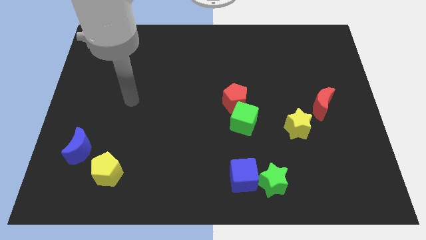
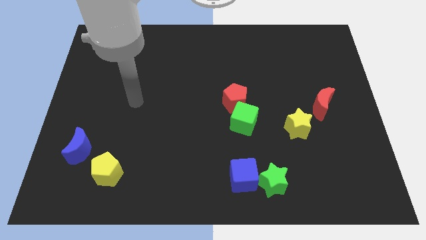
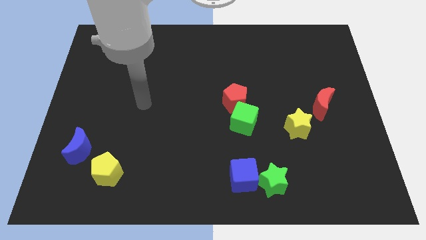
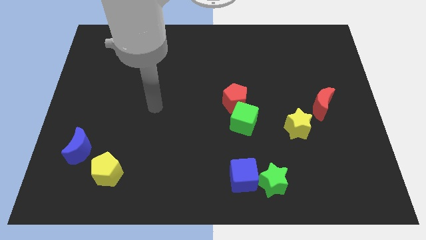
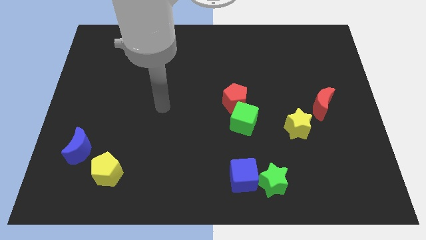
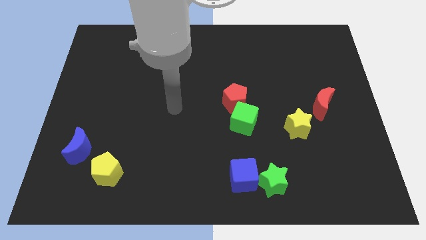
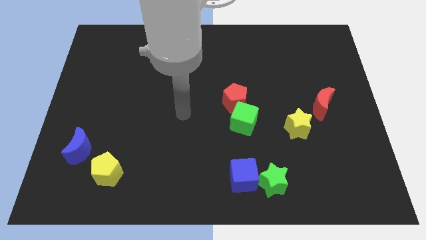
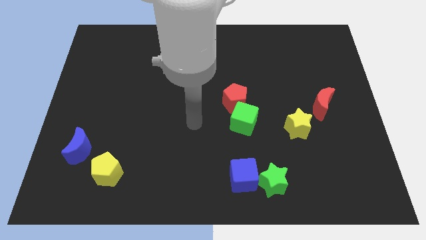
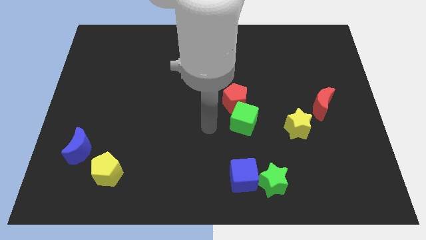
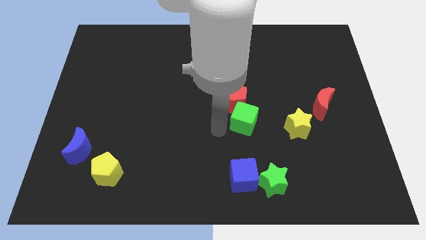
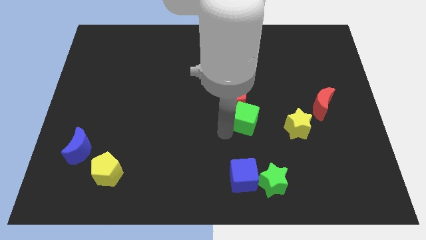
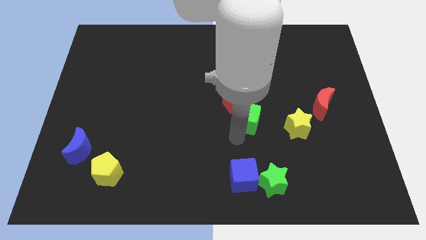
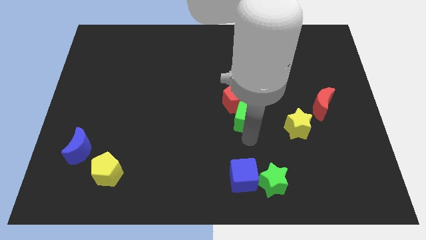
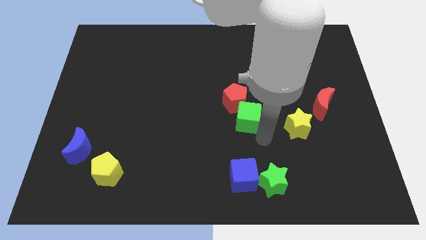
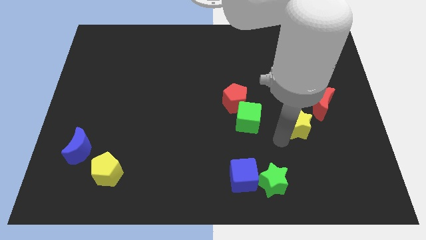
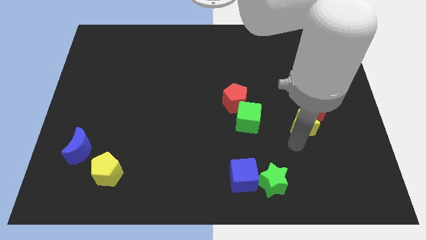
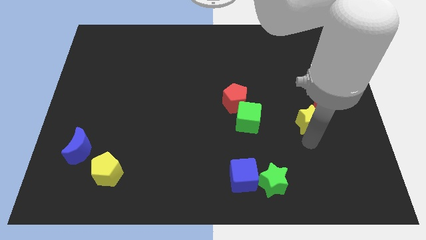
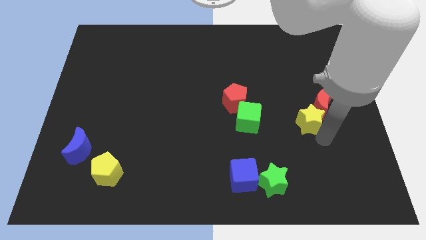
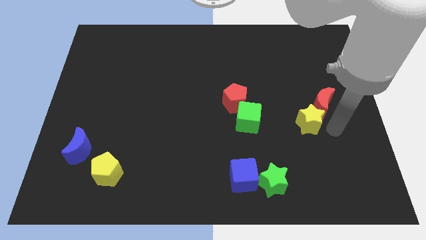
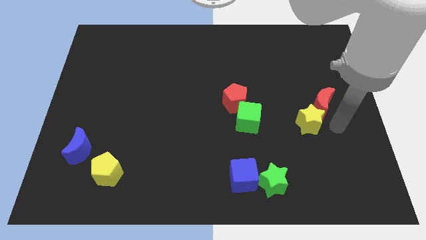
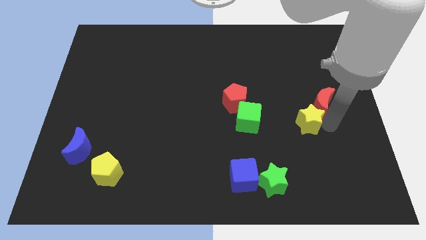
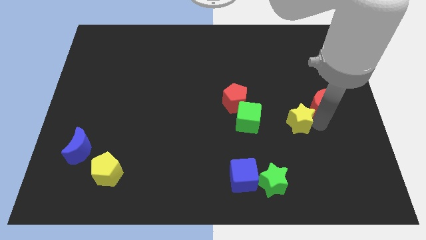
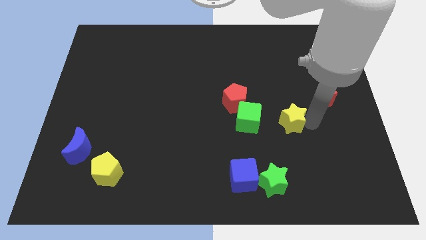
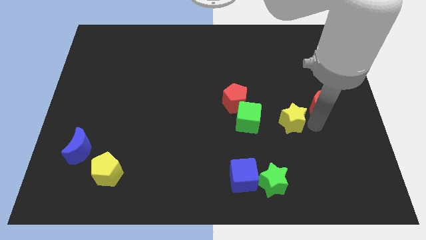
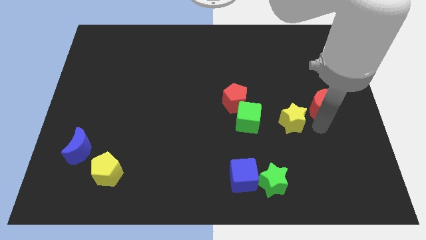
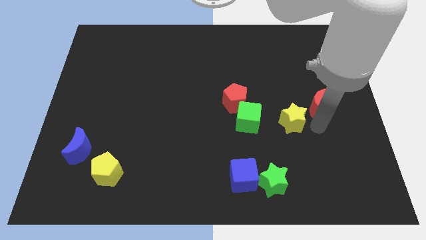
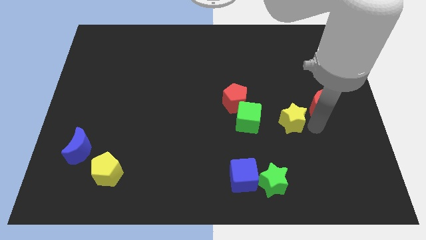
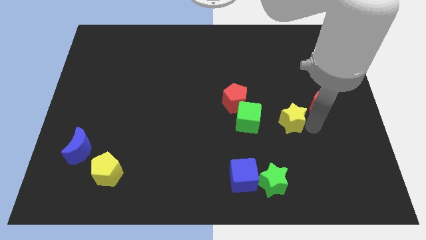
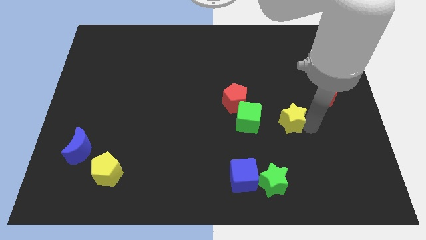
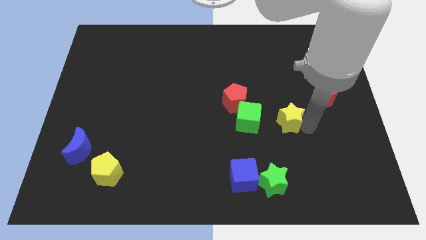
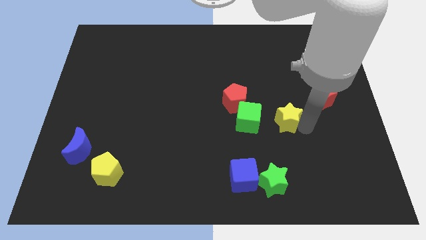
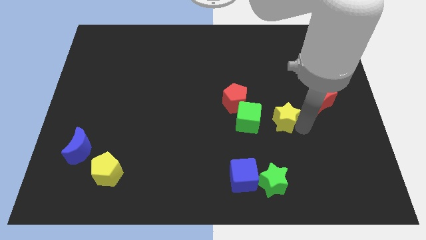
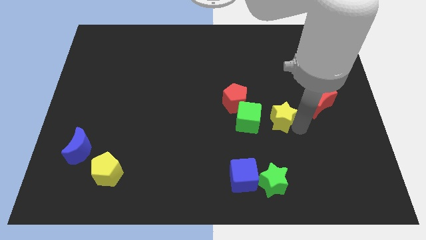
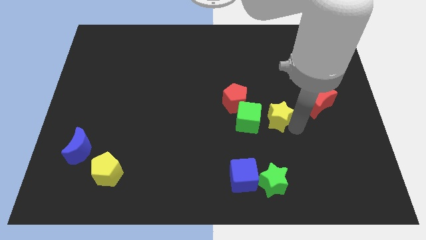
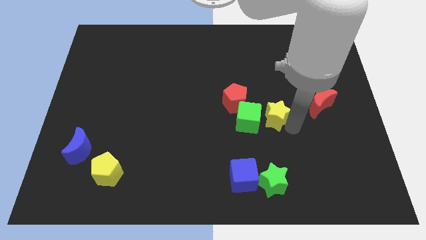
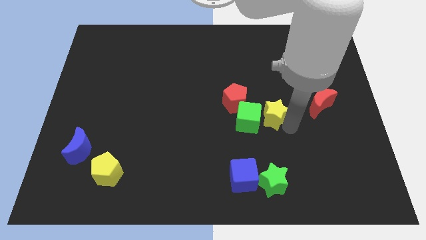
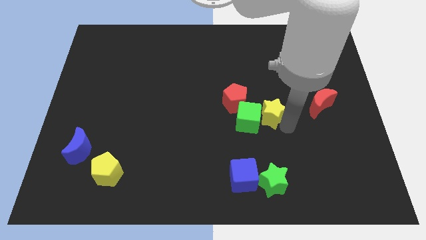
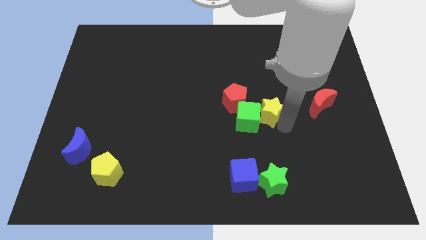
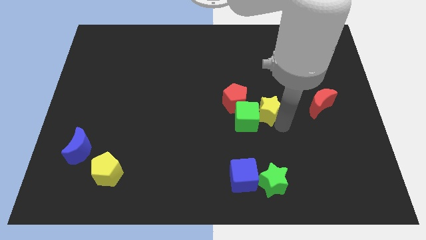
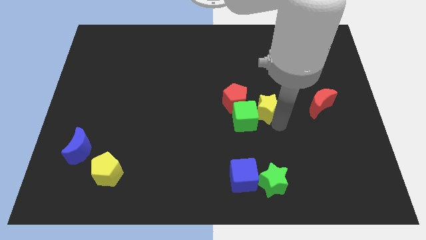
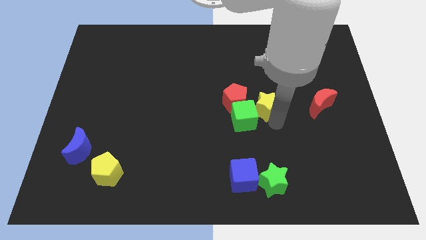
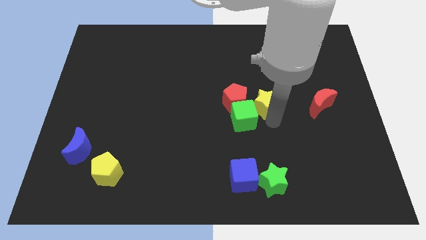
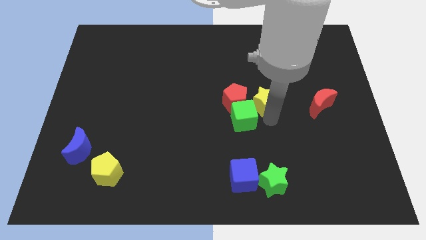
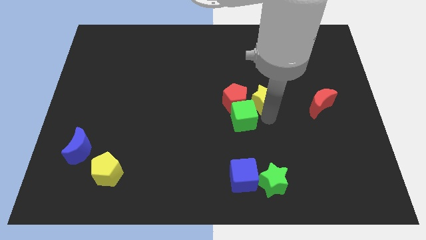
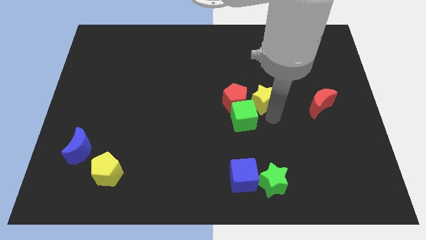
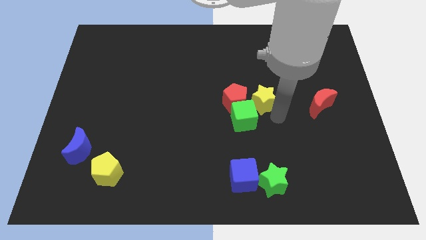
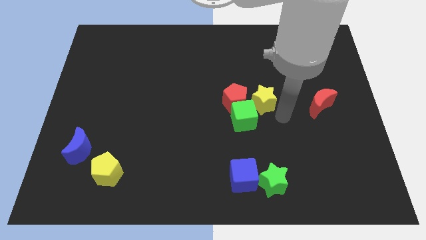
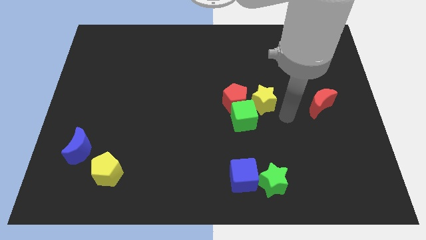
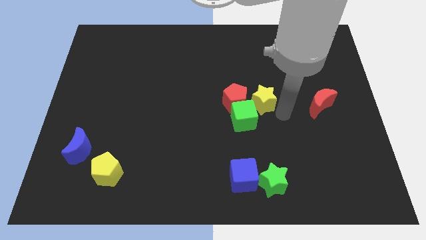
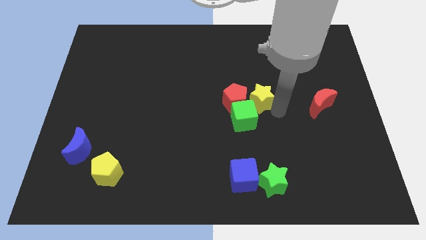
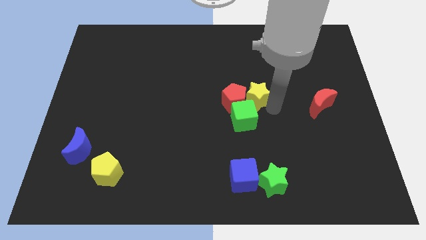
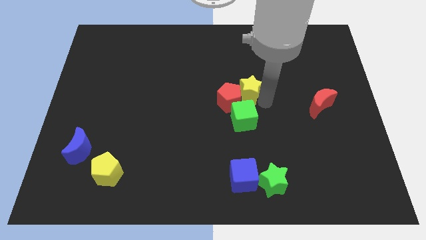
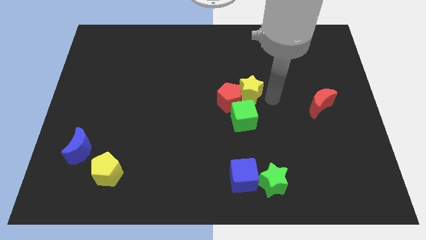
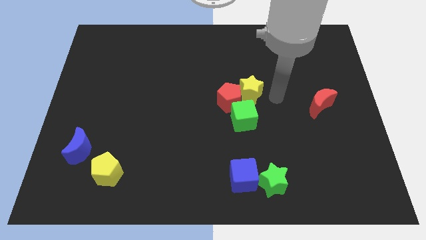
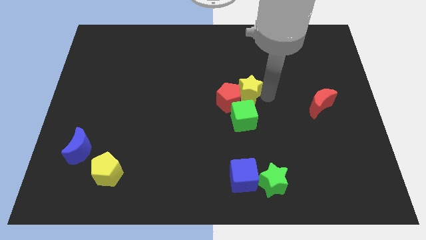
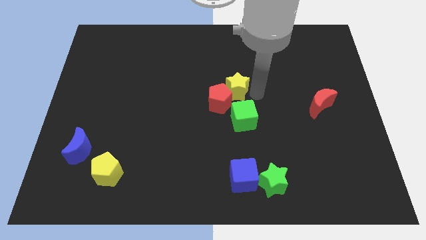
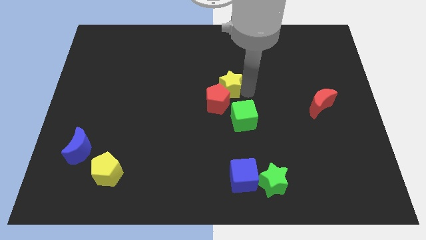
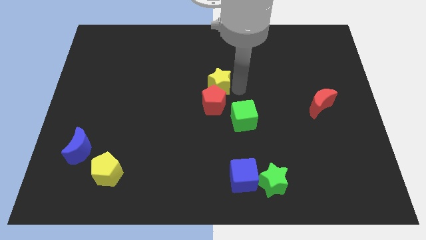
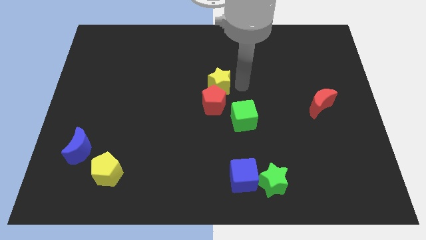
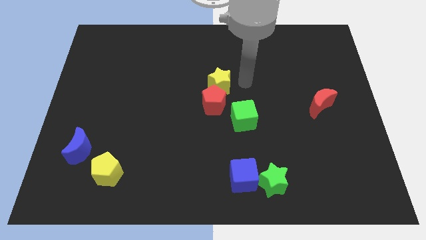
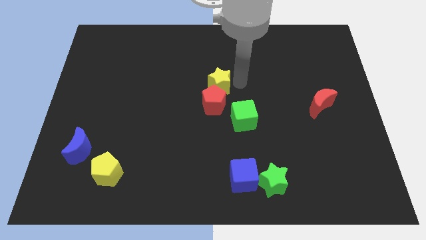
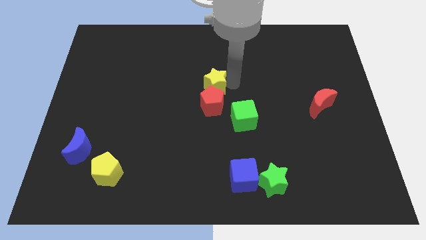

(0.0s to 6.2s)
put the yellow star diagonally up and to the left of the red pentagon

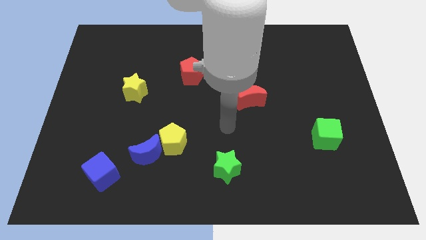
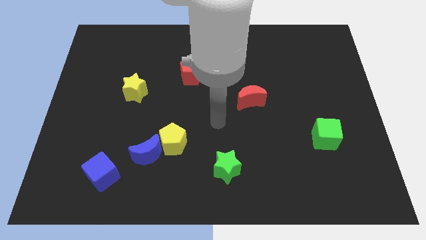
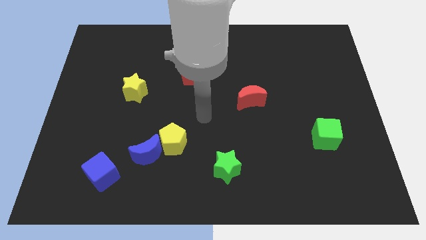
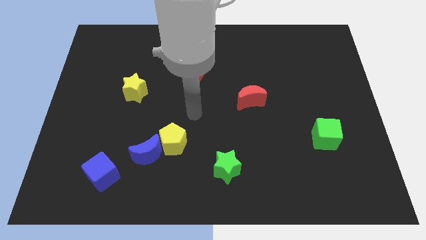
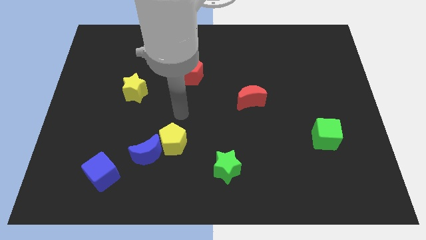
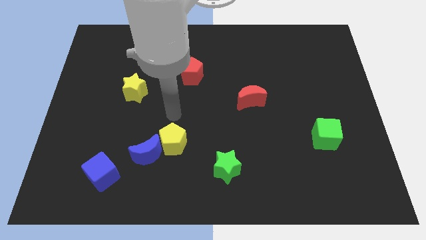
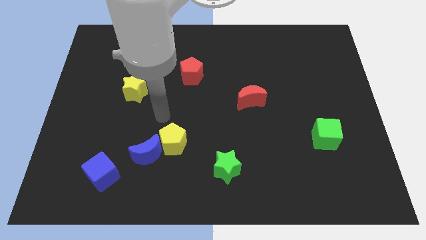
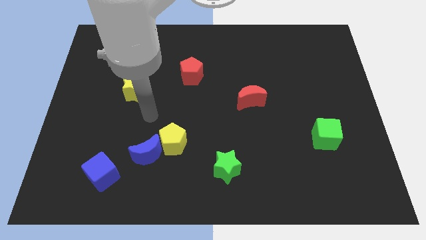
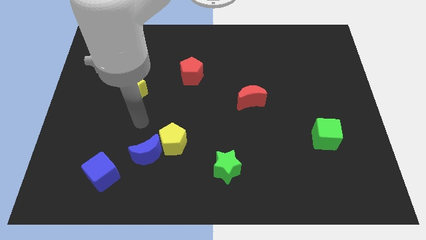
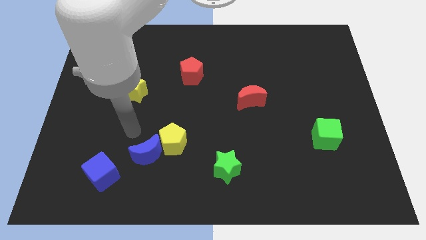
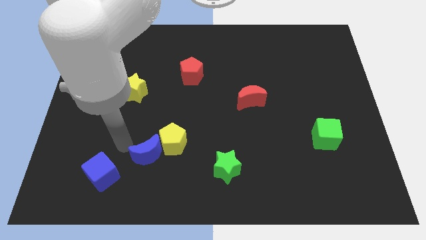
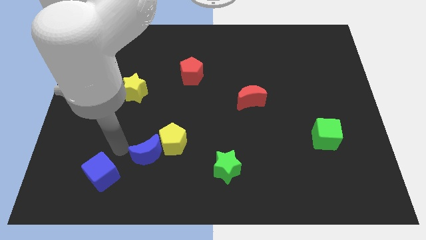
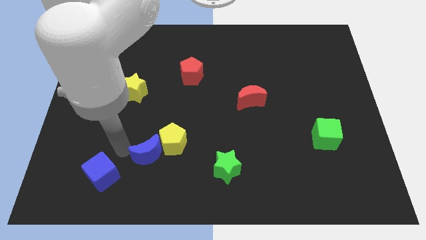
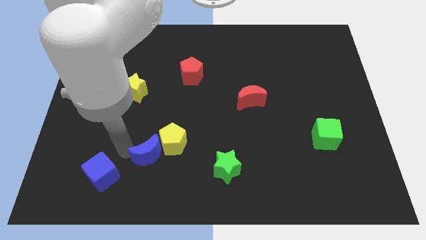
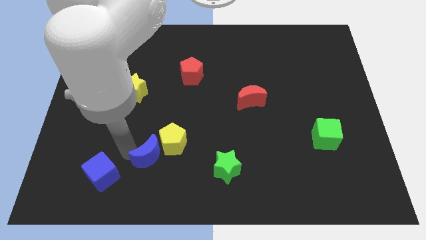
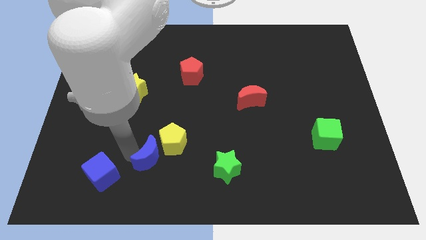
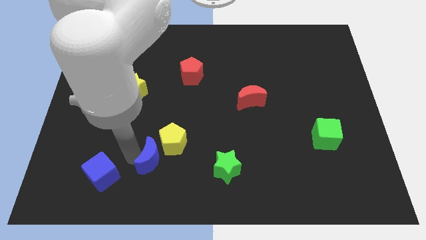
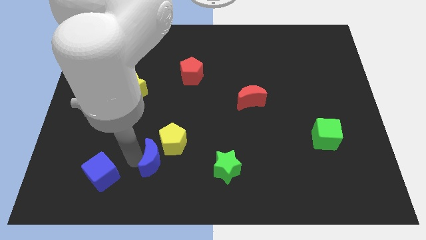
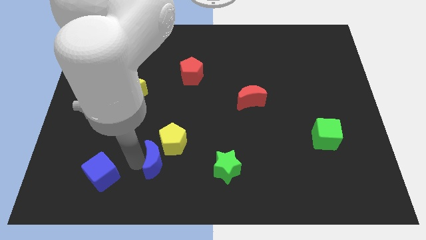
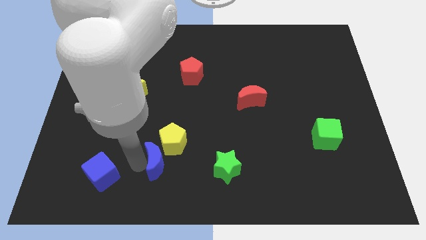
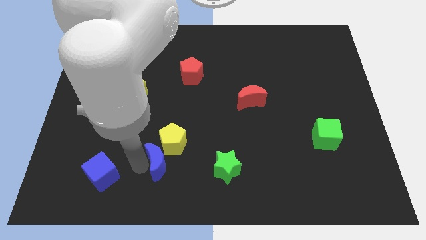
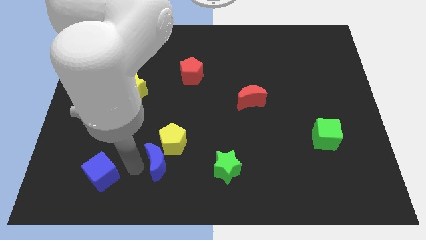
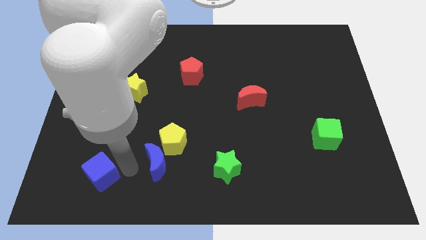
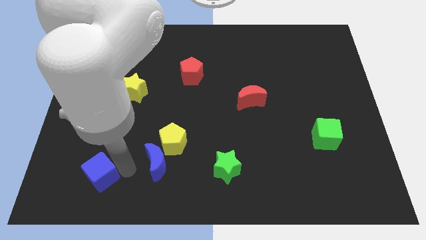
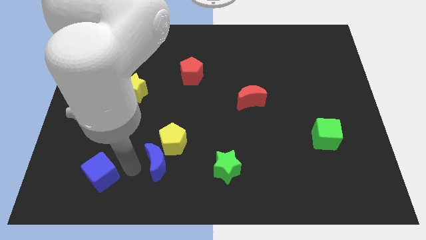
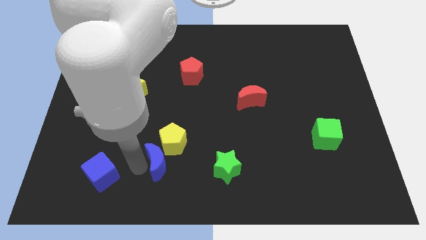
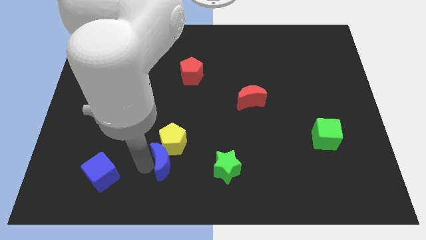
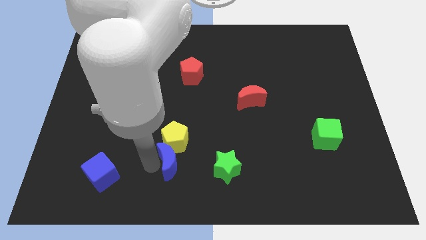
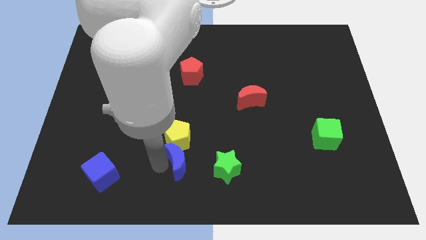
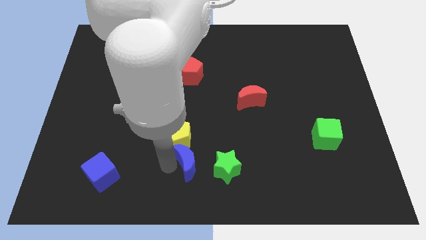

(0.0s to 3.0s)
move the blue moon to the top left side of the green star
